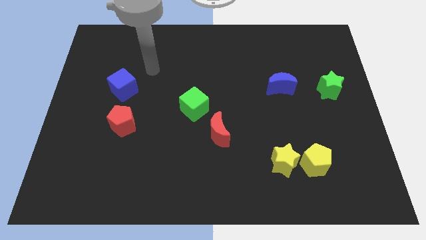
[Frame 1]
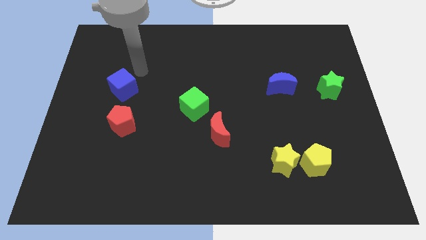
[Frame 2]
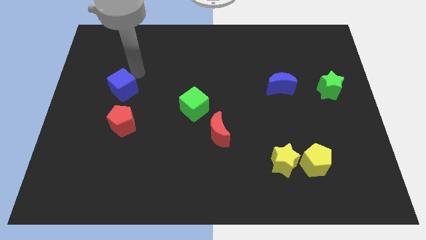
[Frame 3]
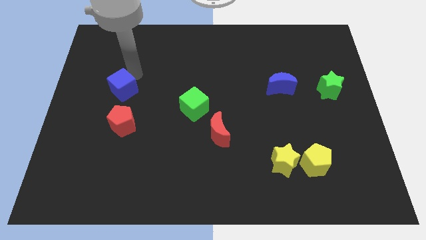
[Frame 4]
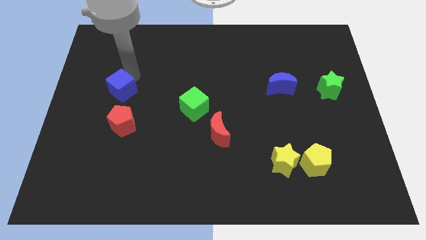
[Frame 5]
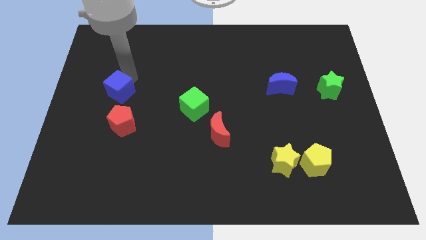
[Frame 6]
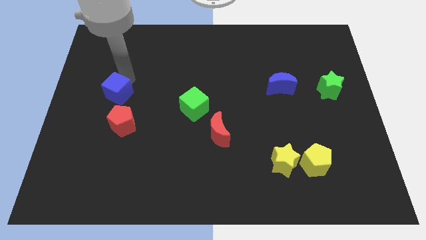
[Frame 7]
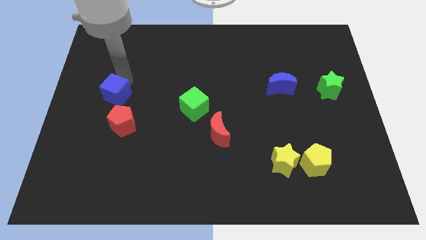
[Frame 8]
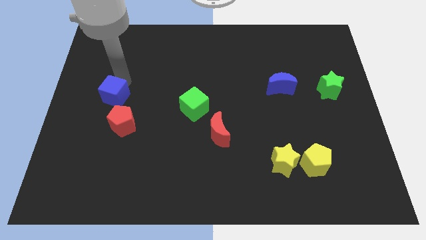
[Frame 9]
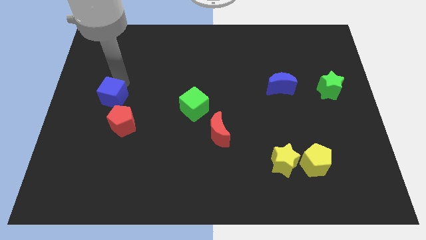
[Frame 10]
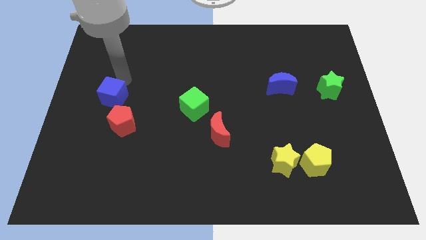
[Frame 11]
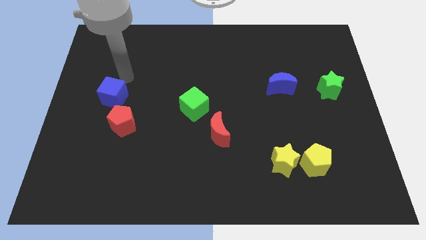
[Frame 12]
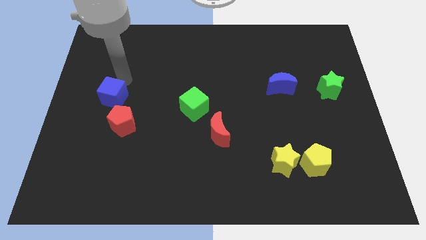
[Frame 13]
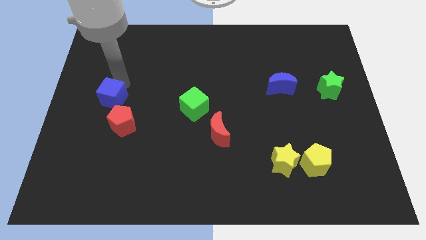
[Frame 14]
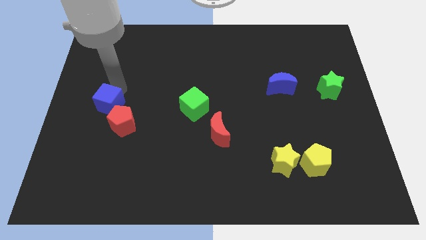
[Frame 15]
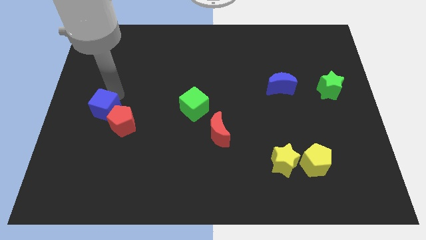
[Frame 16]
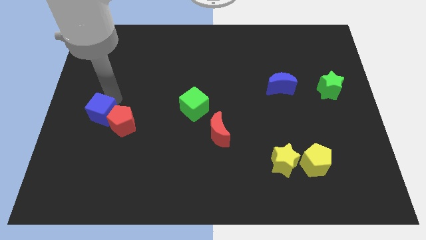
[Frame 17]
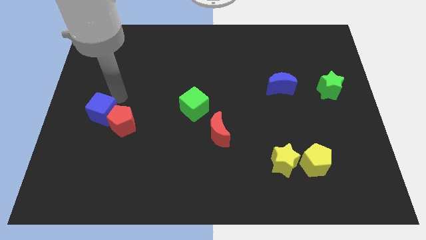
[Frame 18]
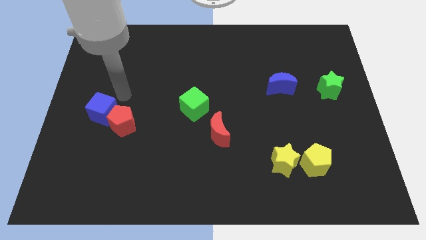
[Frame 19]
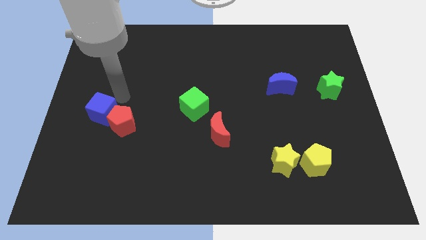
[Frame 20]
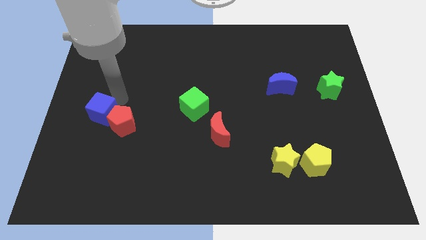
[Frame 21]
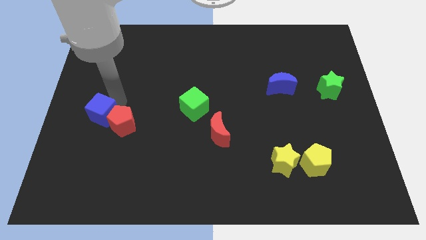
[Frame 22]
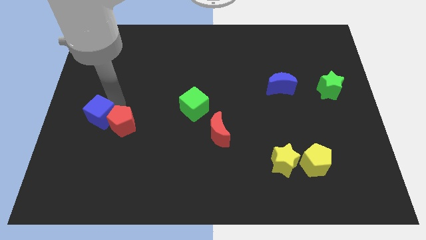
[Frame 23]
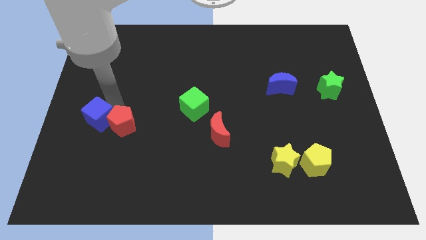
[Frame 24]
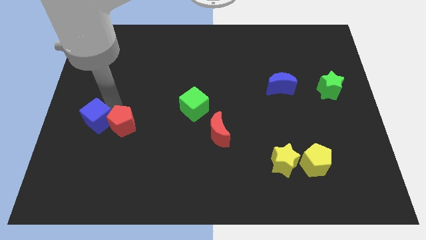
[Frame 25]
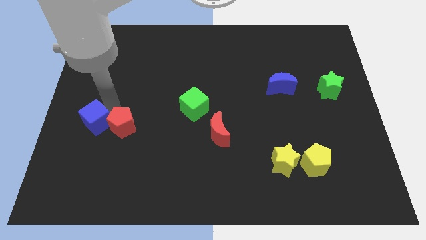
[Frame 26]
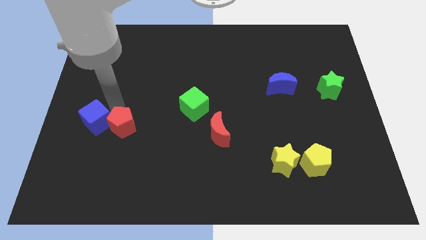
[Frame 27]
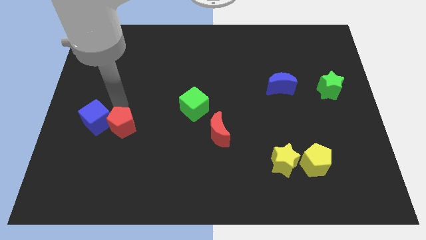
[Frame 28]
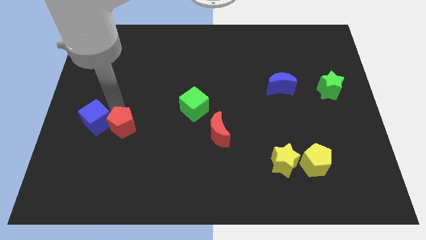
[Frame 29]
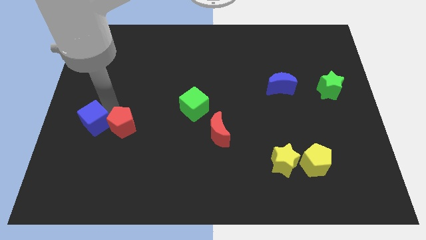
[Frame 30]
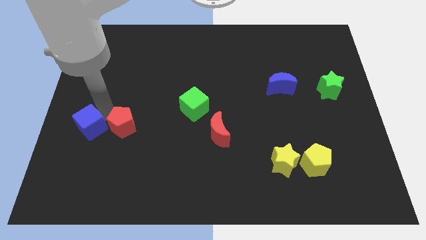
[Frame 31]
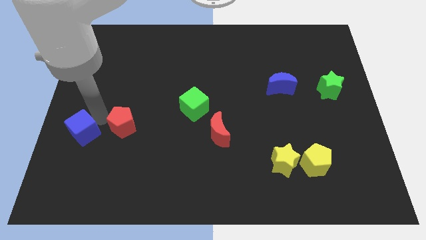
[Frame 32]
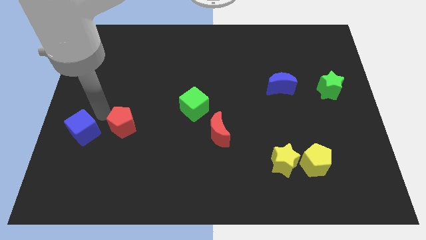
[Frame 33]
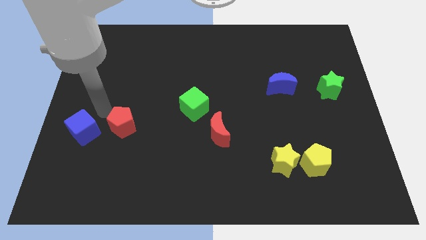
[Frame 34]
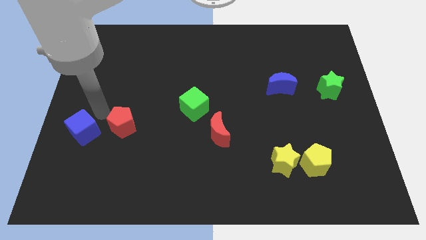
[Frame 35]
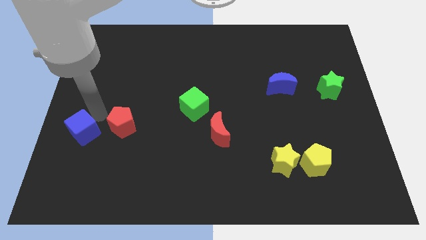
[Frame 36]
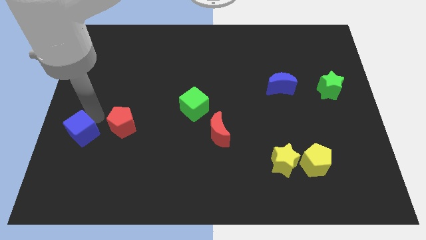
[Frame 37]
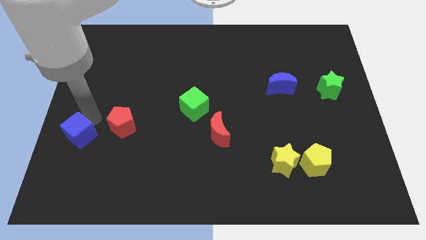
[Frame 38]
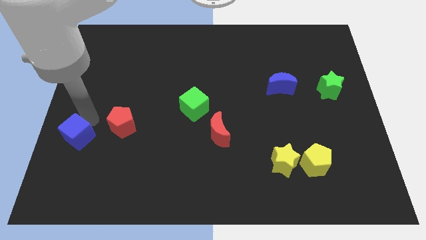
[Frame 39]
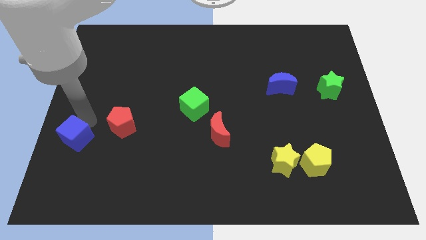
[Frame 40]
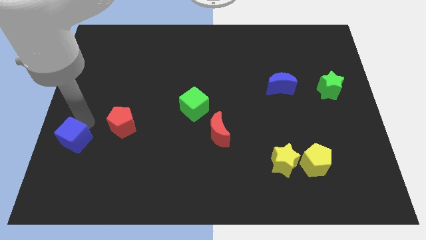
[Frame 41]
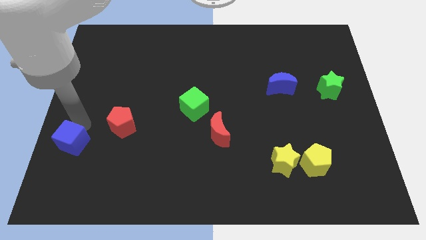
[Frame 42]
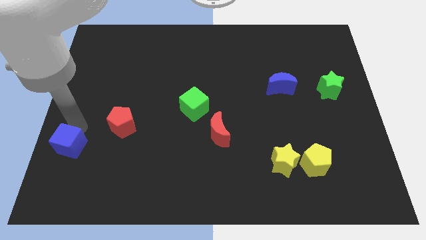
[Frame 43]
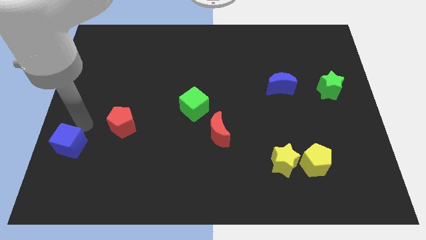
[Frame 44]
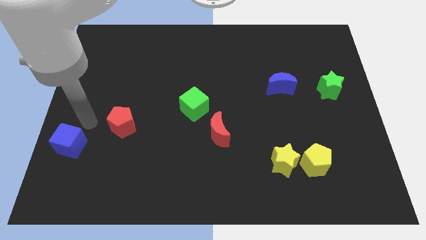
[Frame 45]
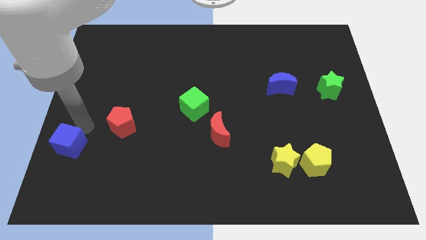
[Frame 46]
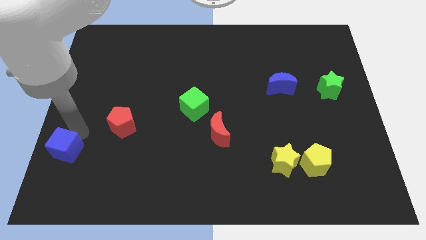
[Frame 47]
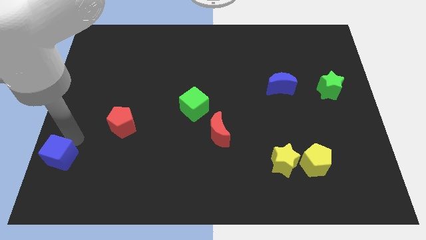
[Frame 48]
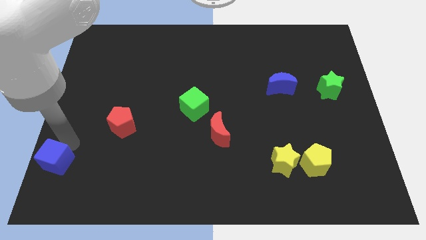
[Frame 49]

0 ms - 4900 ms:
put the blue cube to the bottom left of the board

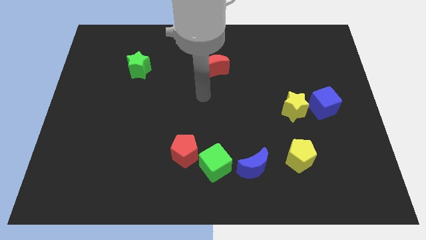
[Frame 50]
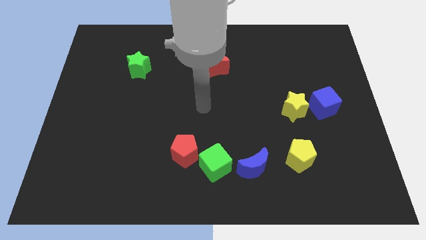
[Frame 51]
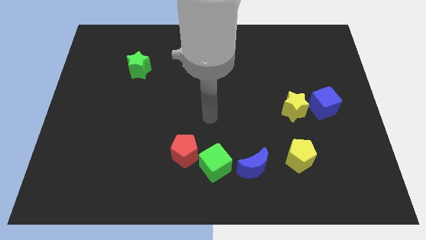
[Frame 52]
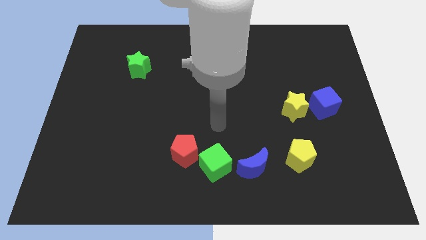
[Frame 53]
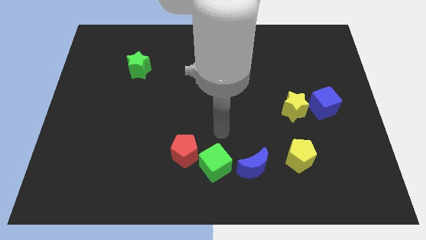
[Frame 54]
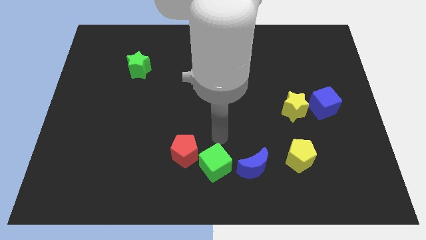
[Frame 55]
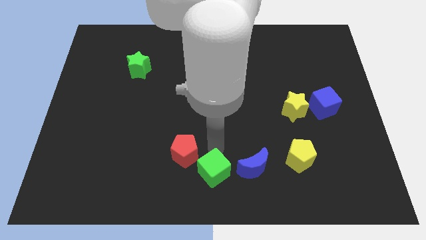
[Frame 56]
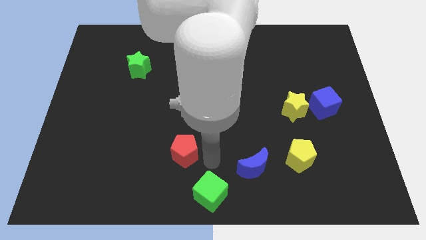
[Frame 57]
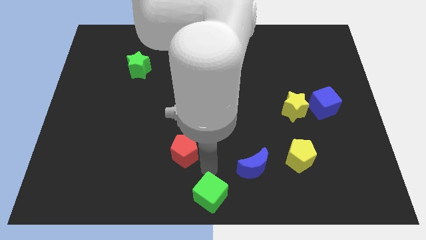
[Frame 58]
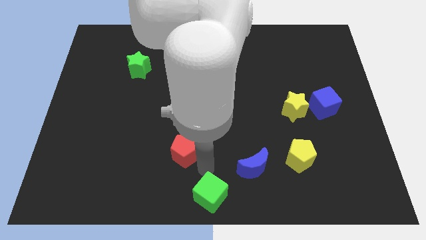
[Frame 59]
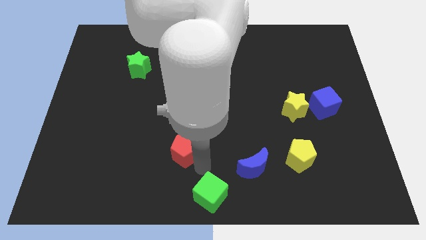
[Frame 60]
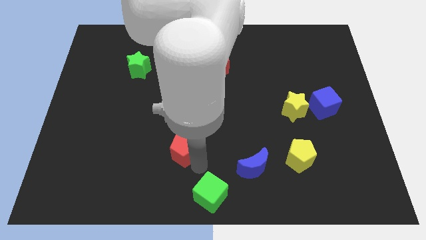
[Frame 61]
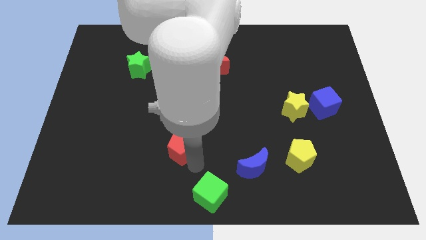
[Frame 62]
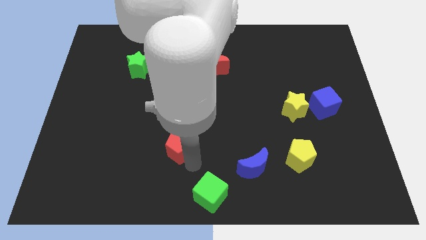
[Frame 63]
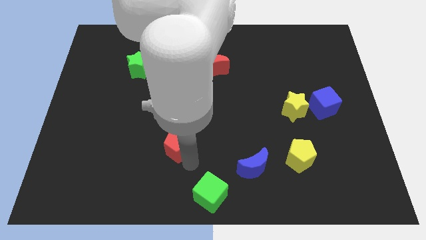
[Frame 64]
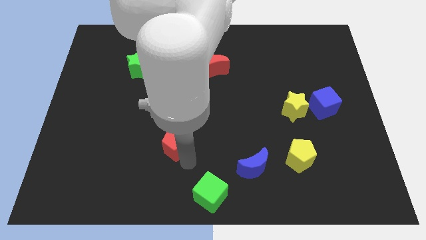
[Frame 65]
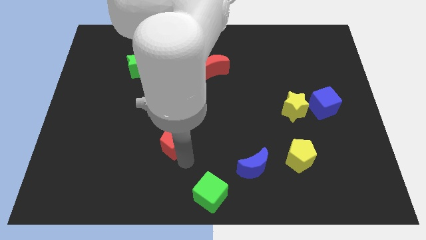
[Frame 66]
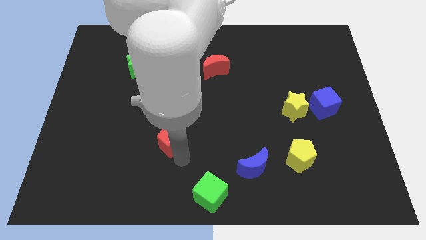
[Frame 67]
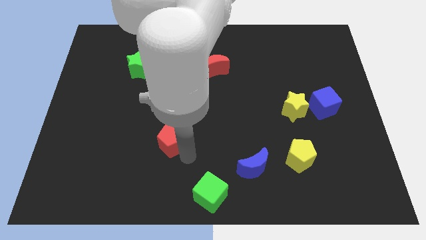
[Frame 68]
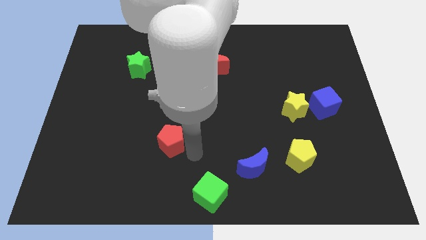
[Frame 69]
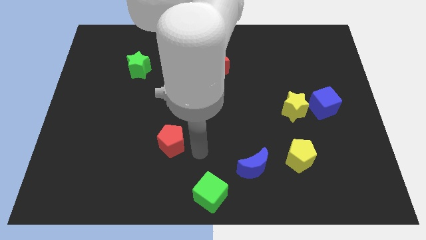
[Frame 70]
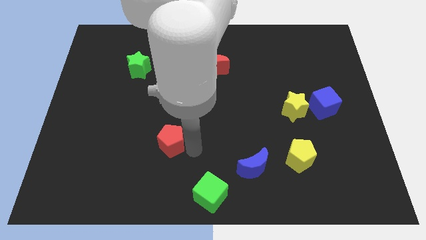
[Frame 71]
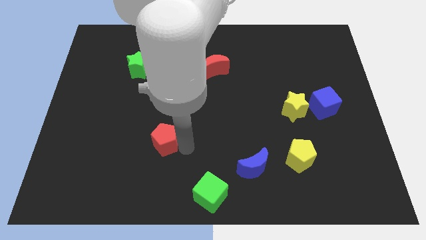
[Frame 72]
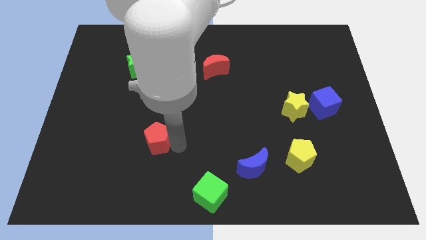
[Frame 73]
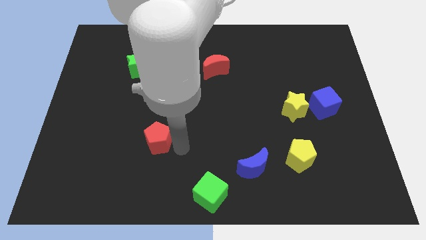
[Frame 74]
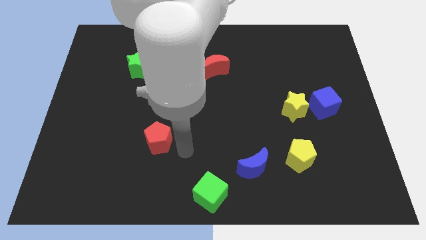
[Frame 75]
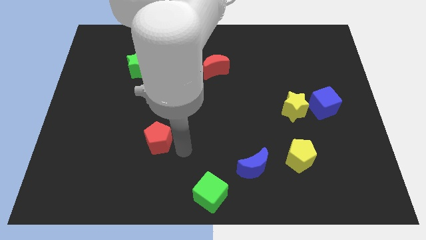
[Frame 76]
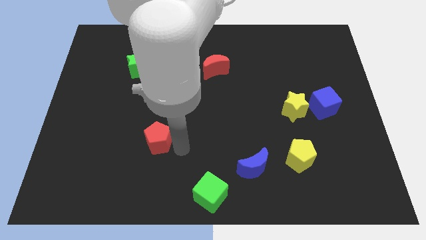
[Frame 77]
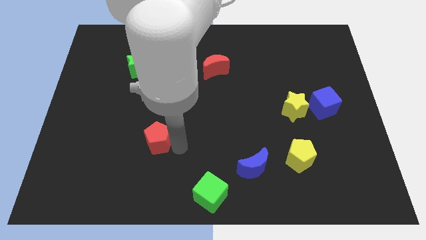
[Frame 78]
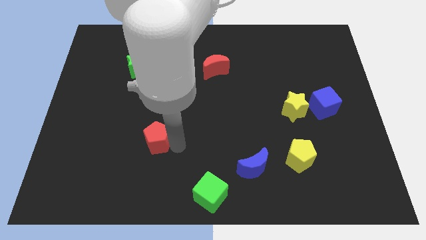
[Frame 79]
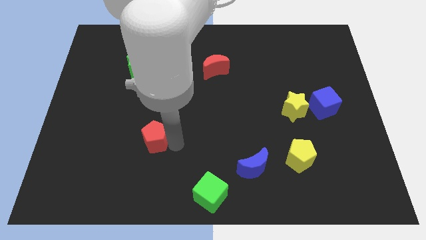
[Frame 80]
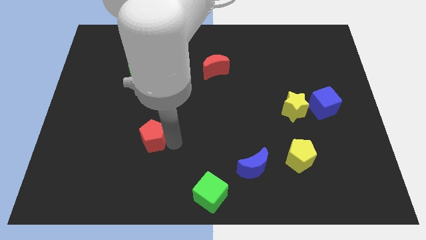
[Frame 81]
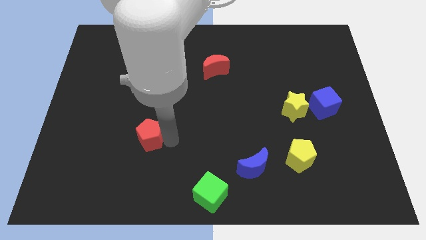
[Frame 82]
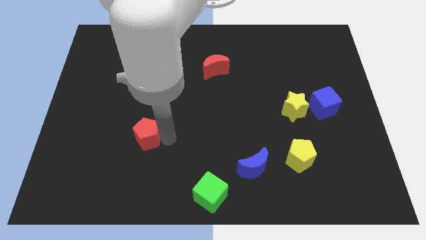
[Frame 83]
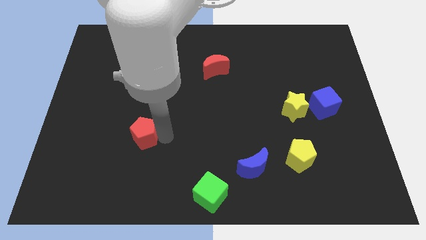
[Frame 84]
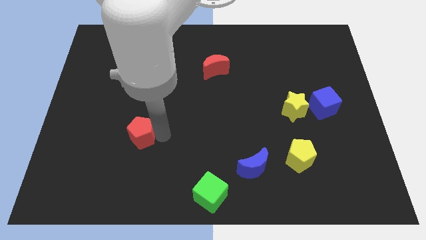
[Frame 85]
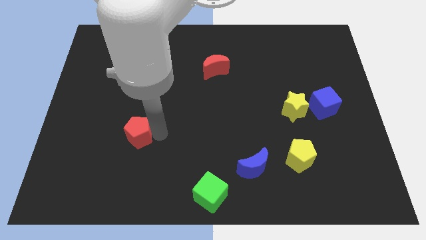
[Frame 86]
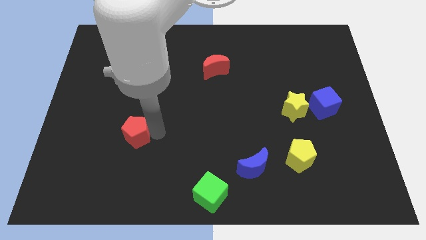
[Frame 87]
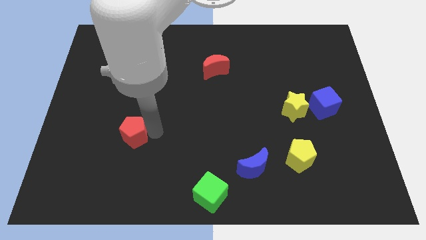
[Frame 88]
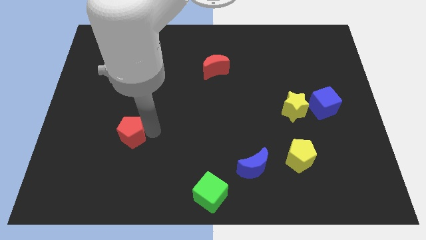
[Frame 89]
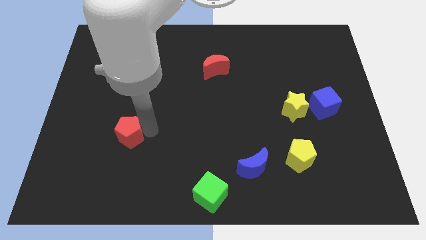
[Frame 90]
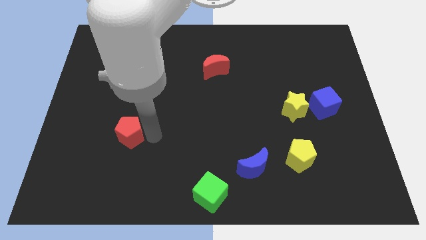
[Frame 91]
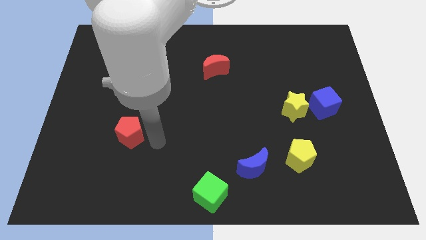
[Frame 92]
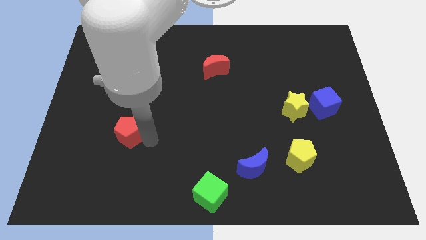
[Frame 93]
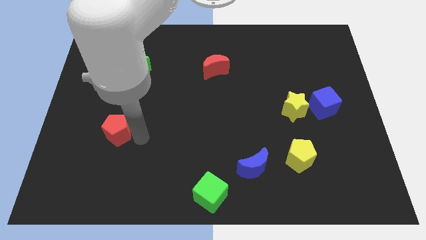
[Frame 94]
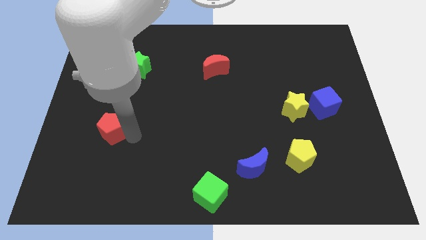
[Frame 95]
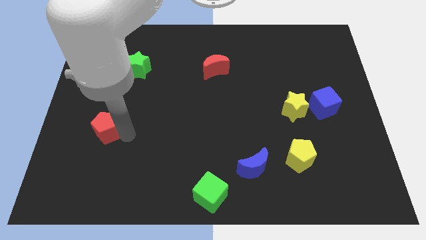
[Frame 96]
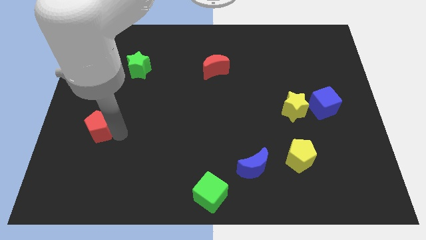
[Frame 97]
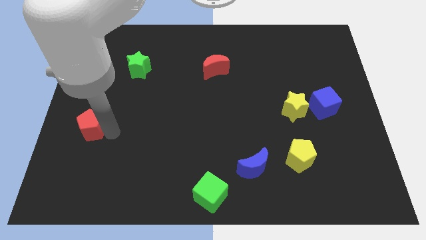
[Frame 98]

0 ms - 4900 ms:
put the red pentagon to the left side
